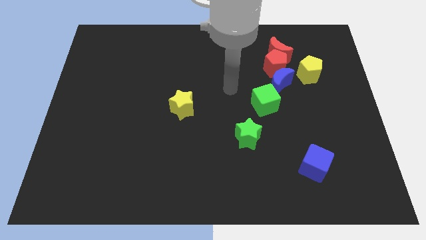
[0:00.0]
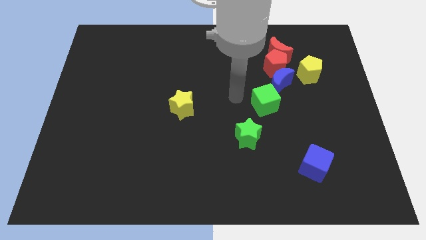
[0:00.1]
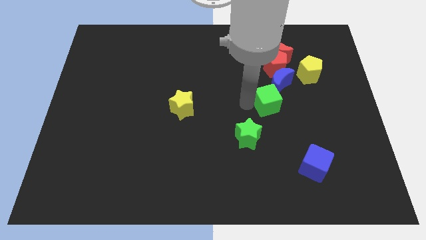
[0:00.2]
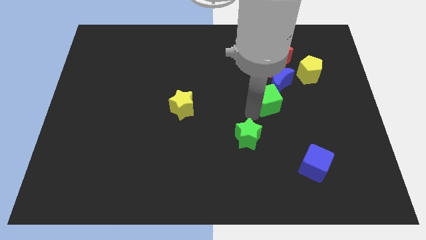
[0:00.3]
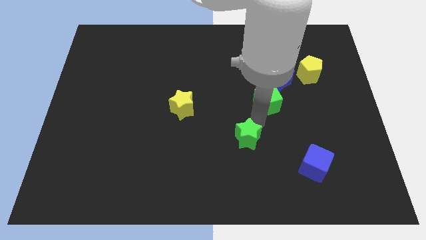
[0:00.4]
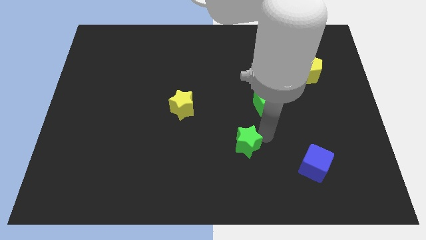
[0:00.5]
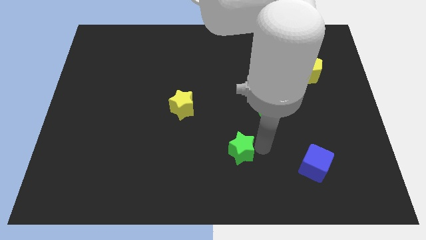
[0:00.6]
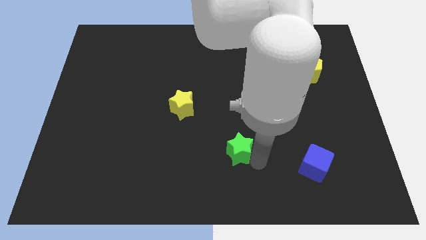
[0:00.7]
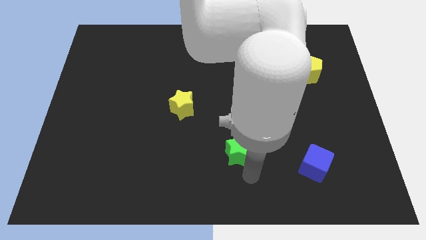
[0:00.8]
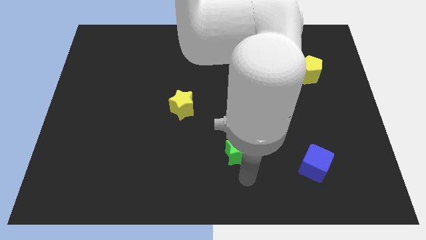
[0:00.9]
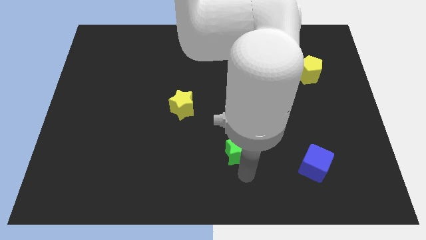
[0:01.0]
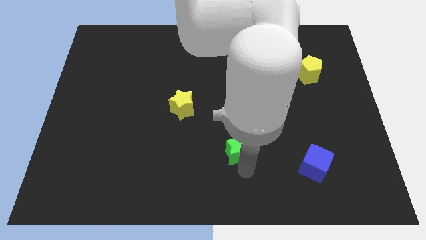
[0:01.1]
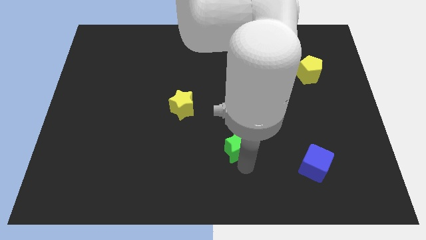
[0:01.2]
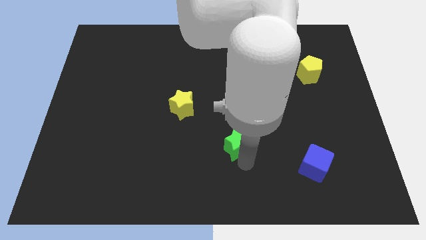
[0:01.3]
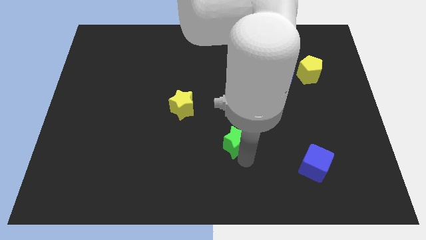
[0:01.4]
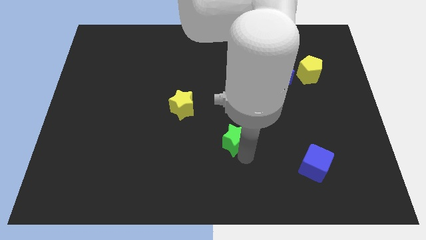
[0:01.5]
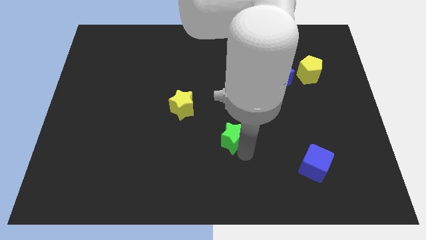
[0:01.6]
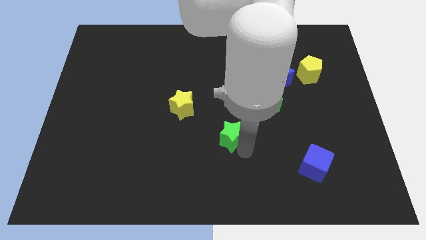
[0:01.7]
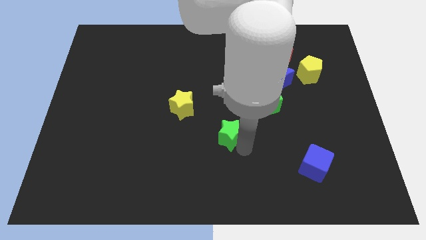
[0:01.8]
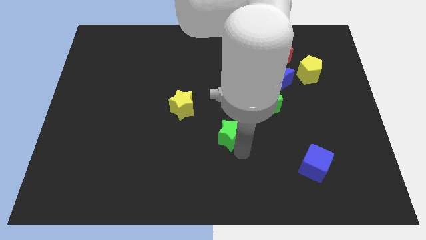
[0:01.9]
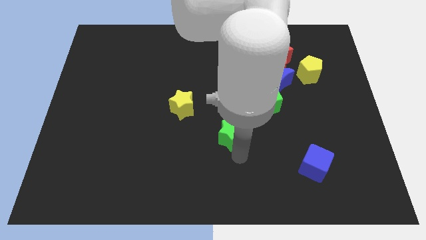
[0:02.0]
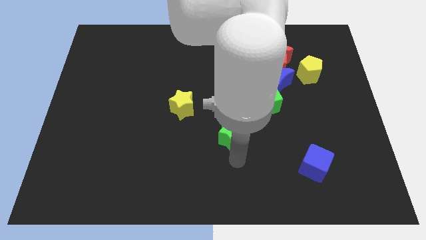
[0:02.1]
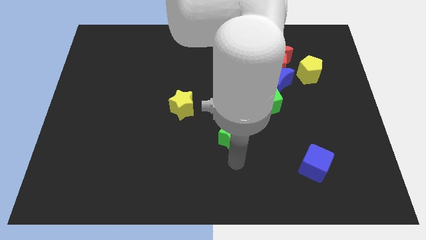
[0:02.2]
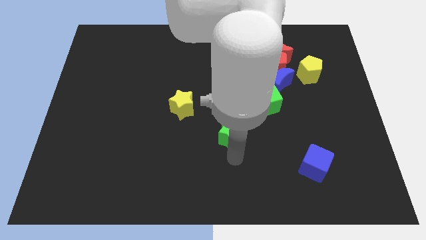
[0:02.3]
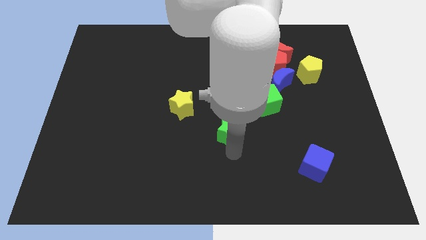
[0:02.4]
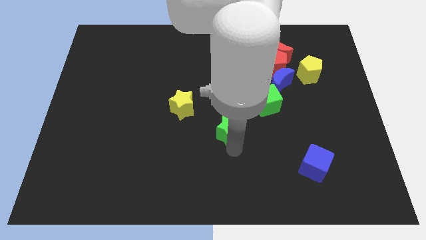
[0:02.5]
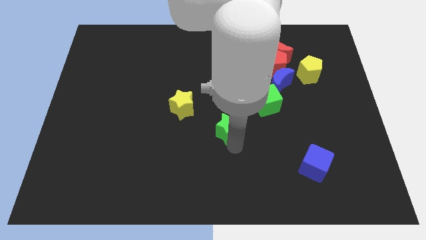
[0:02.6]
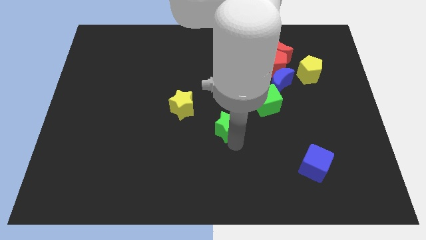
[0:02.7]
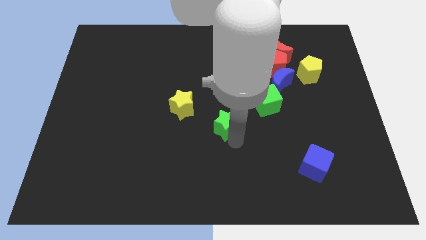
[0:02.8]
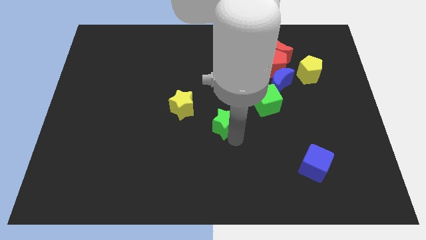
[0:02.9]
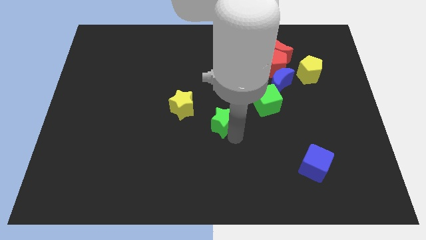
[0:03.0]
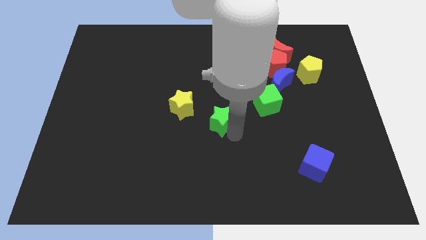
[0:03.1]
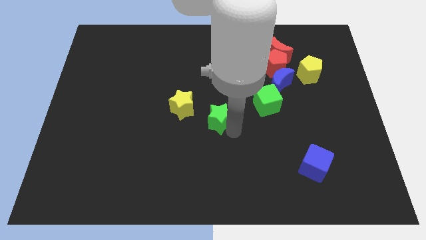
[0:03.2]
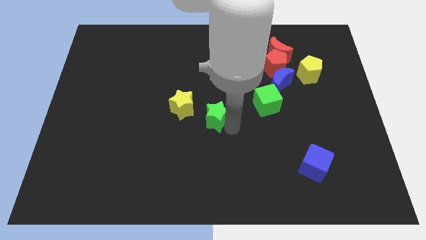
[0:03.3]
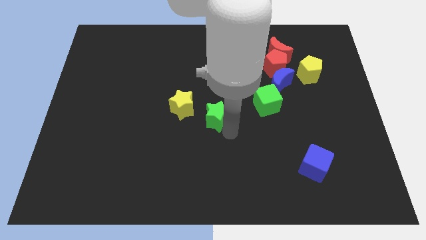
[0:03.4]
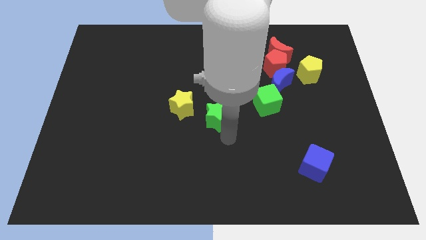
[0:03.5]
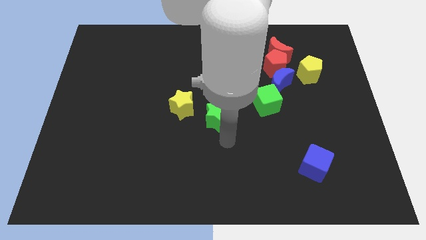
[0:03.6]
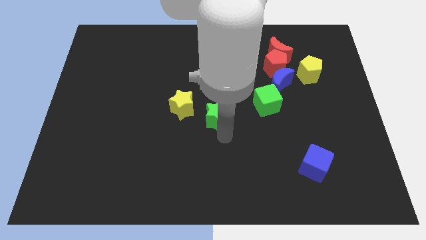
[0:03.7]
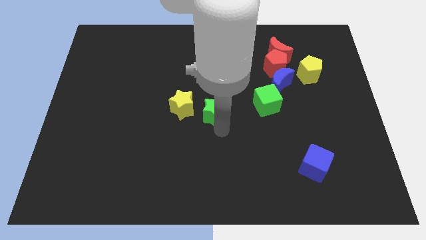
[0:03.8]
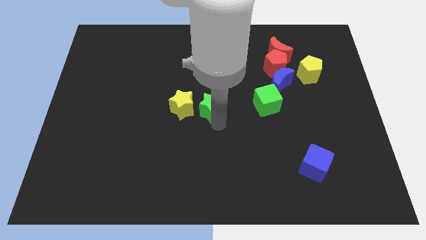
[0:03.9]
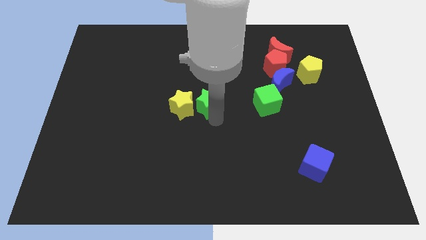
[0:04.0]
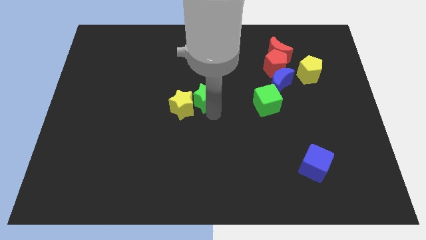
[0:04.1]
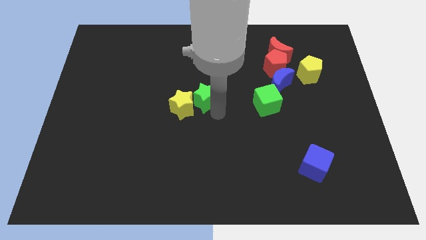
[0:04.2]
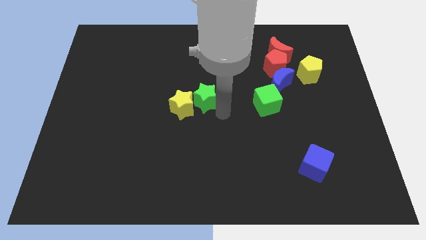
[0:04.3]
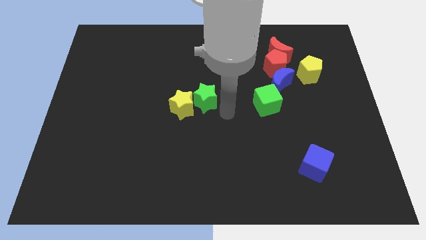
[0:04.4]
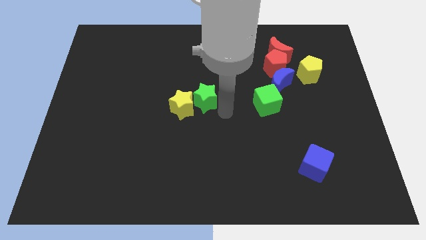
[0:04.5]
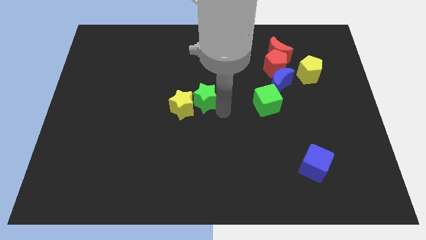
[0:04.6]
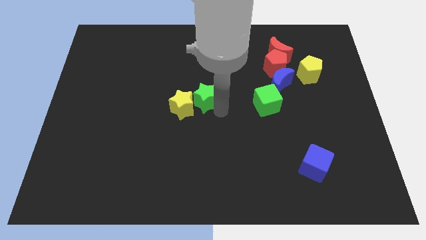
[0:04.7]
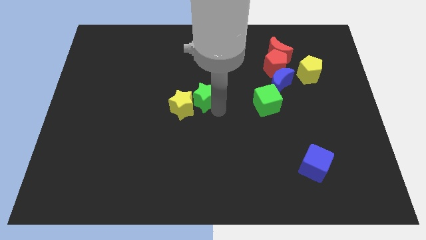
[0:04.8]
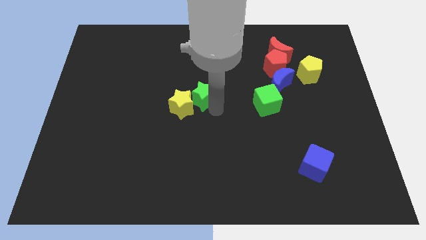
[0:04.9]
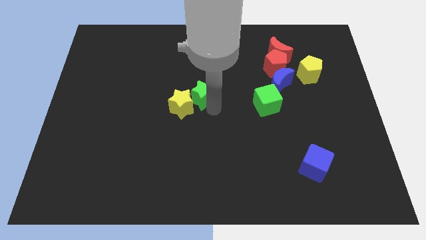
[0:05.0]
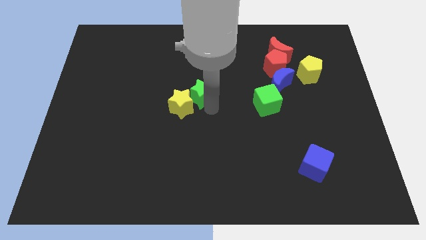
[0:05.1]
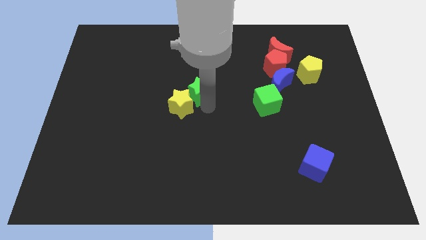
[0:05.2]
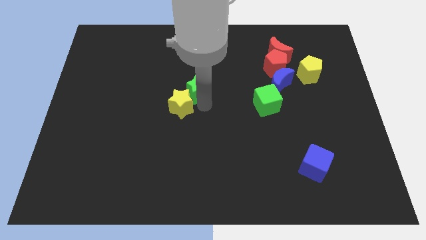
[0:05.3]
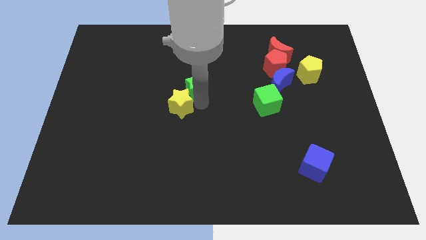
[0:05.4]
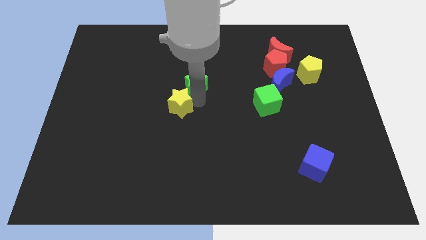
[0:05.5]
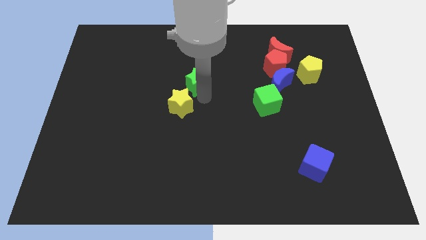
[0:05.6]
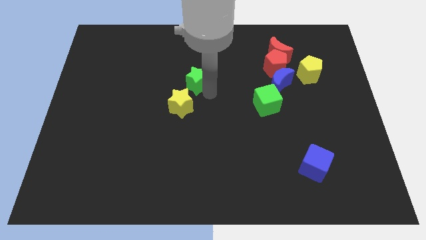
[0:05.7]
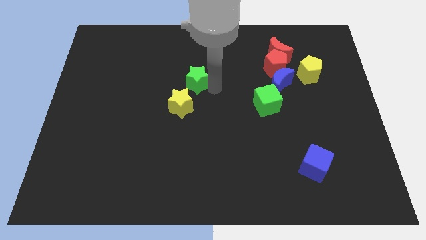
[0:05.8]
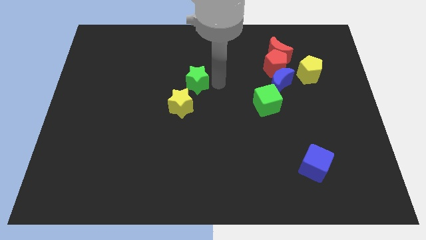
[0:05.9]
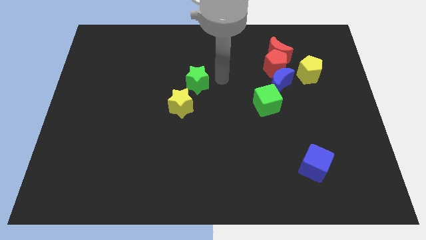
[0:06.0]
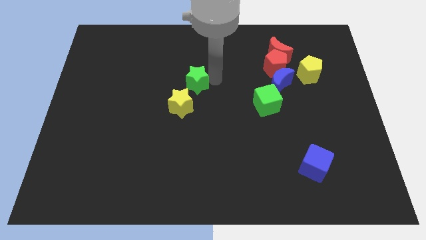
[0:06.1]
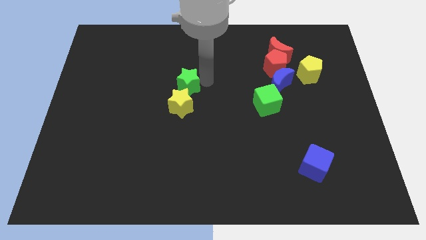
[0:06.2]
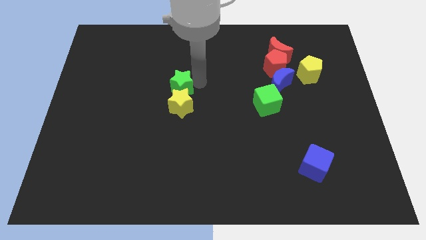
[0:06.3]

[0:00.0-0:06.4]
slide the green star diagonally up and to the left of the yellow star

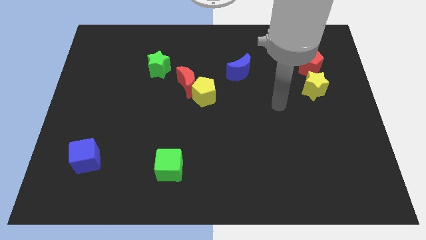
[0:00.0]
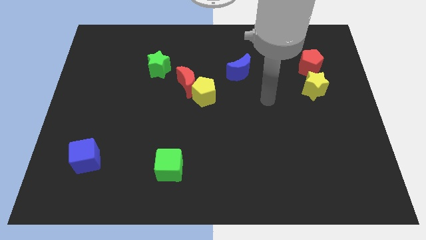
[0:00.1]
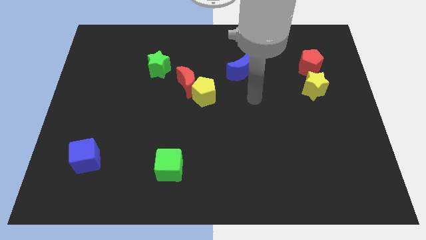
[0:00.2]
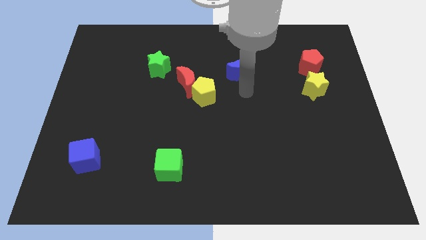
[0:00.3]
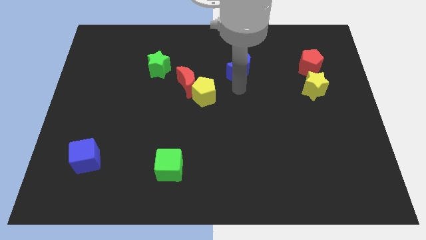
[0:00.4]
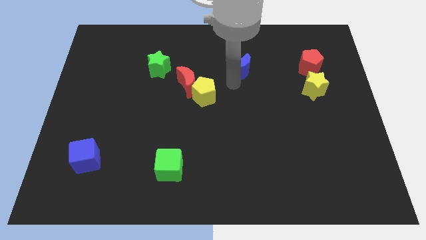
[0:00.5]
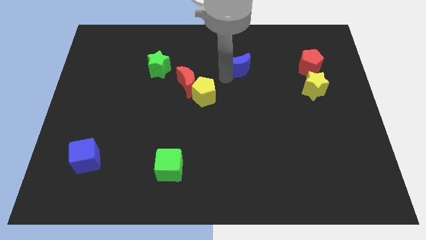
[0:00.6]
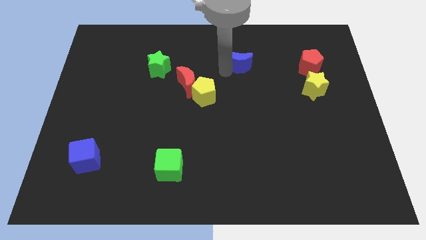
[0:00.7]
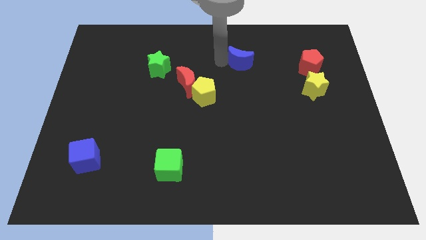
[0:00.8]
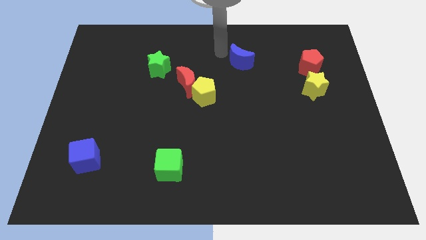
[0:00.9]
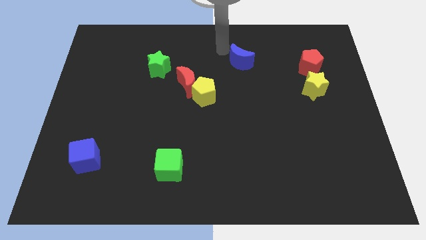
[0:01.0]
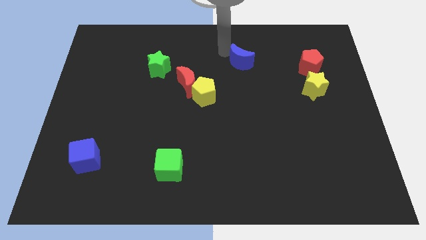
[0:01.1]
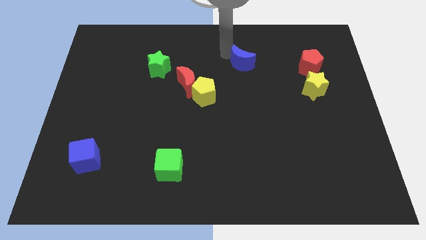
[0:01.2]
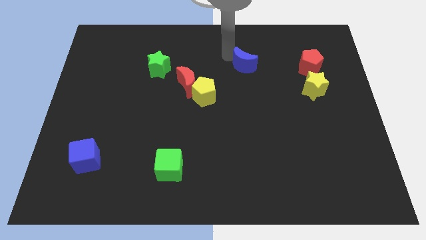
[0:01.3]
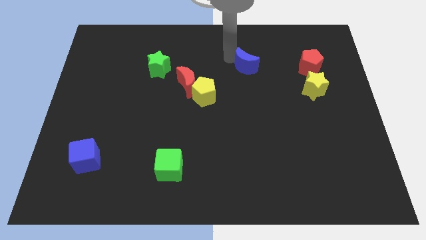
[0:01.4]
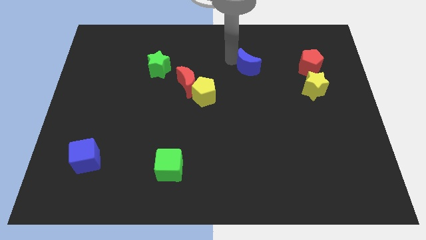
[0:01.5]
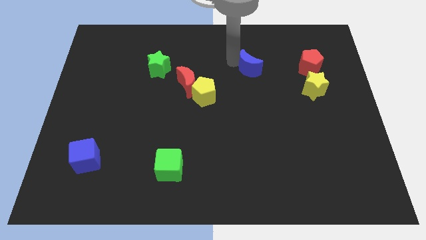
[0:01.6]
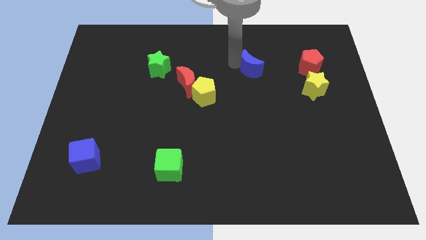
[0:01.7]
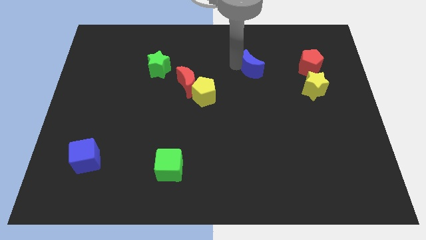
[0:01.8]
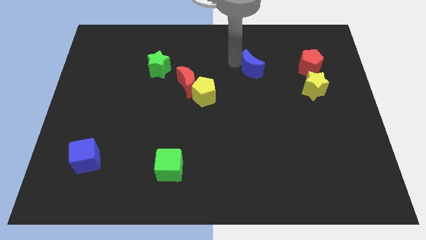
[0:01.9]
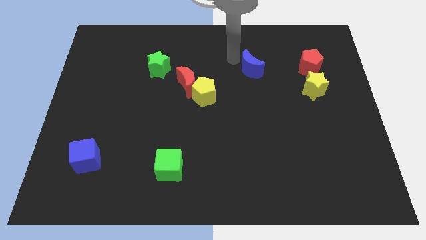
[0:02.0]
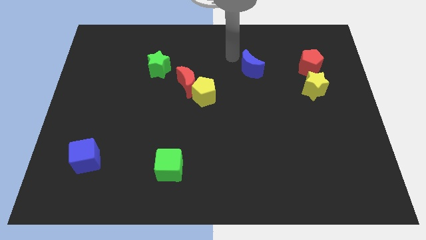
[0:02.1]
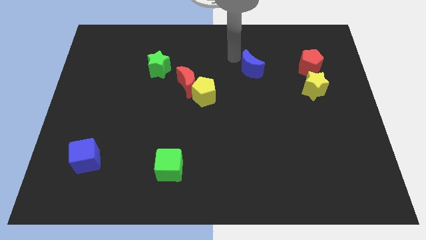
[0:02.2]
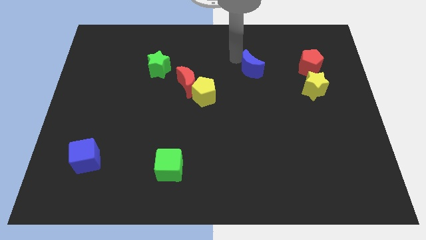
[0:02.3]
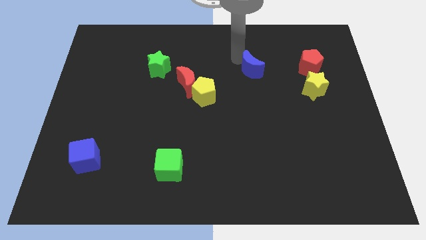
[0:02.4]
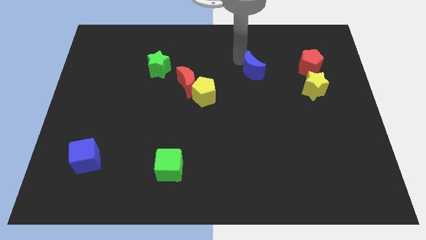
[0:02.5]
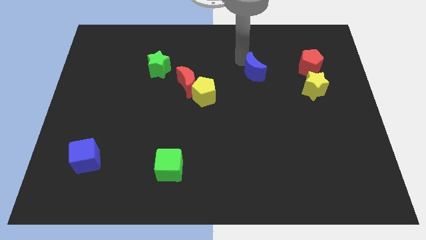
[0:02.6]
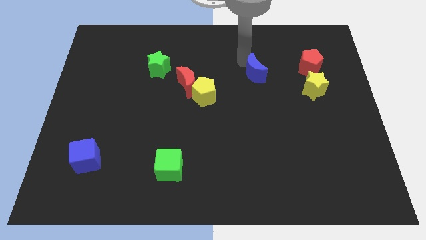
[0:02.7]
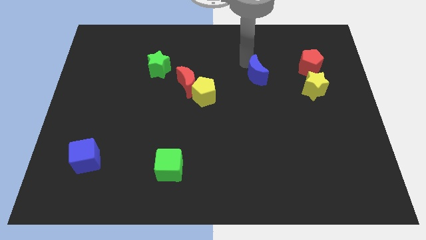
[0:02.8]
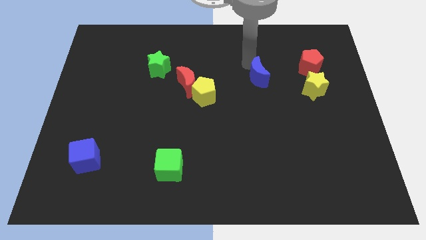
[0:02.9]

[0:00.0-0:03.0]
push the blue moon to the left of the yellow star
